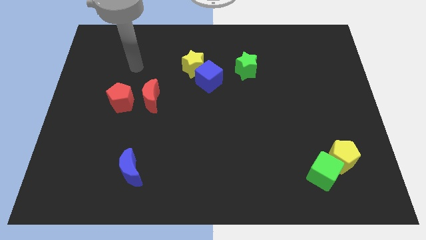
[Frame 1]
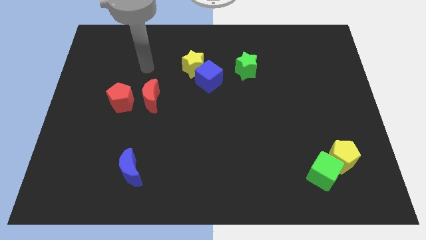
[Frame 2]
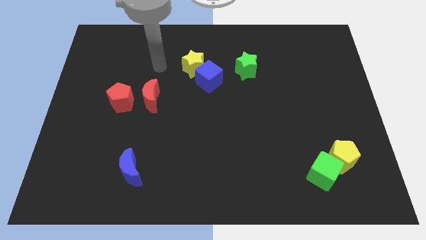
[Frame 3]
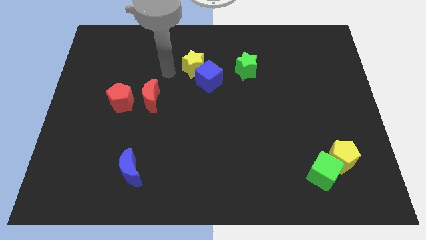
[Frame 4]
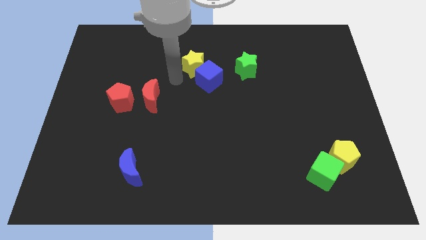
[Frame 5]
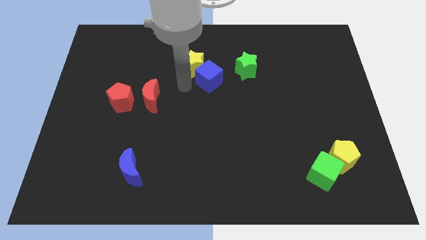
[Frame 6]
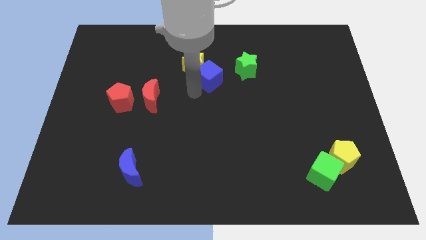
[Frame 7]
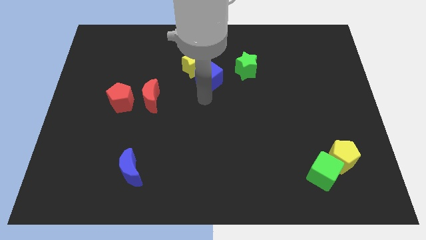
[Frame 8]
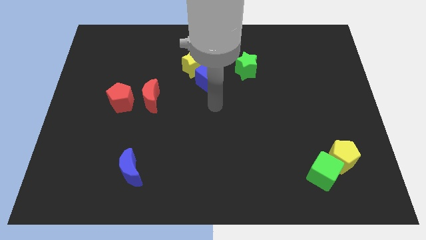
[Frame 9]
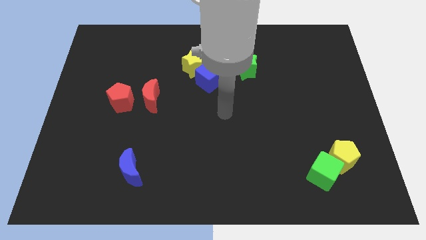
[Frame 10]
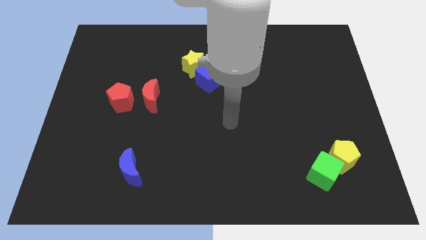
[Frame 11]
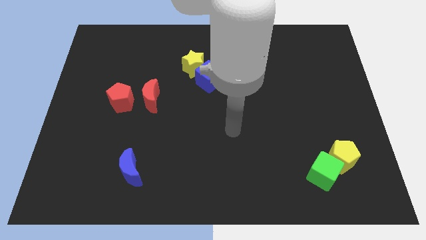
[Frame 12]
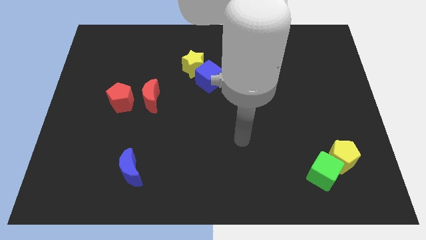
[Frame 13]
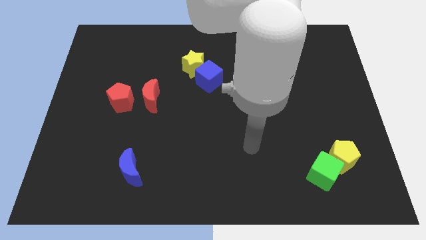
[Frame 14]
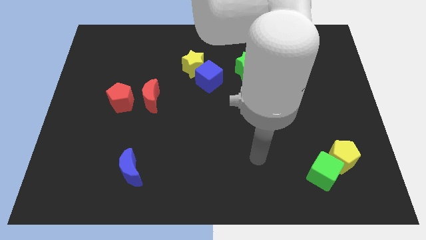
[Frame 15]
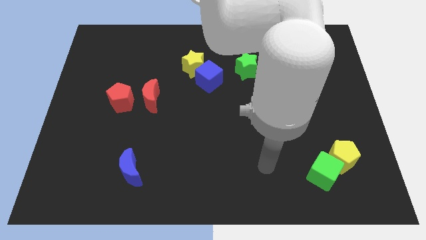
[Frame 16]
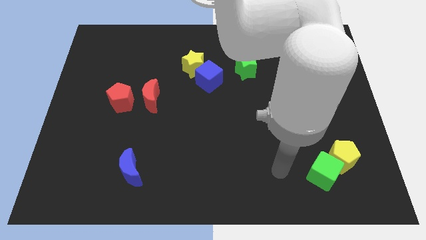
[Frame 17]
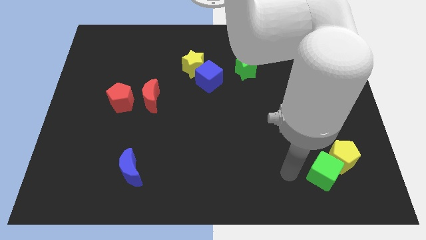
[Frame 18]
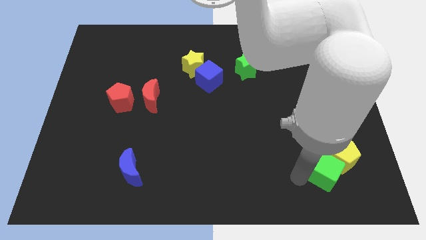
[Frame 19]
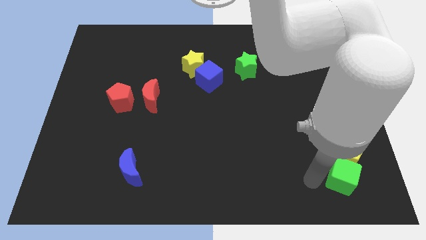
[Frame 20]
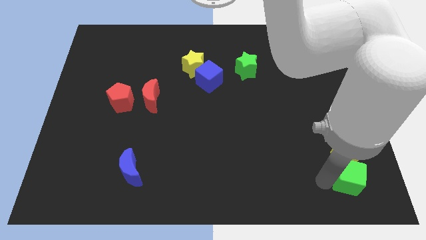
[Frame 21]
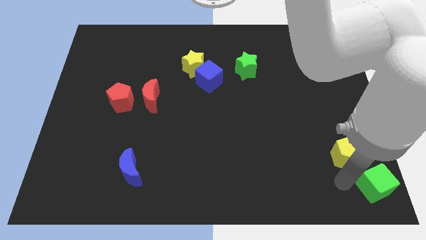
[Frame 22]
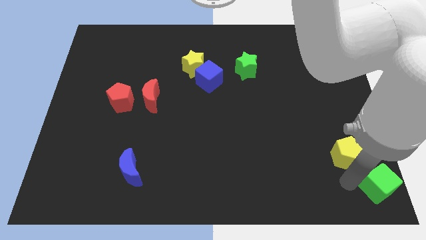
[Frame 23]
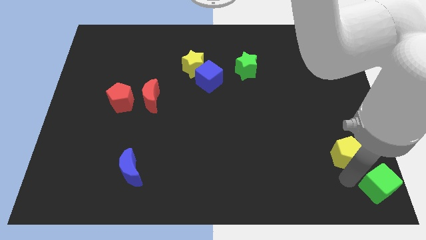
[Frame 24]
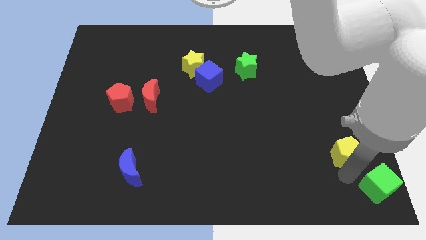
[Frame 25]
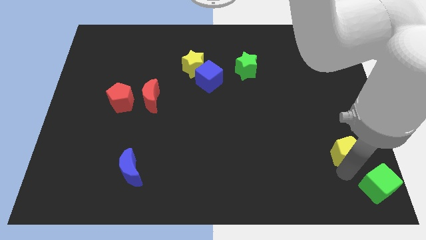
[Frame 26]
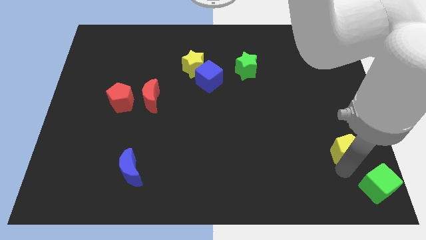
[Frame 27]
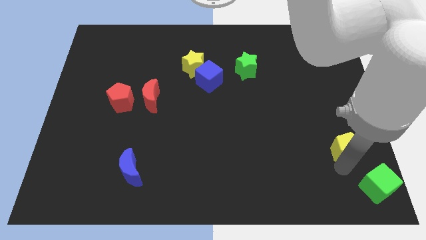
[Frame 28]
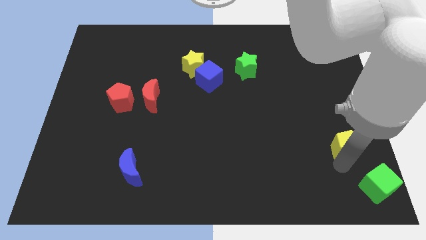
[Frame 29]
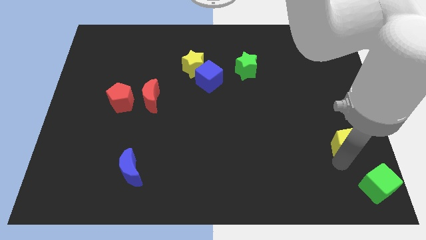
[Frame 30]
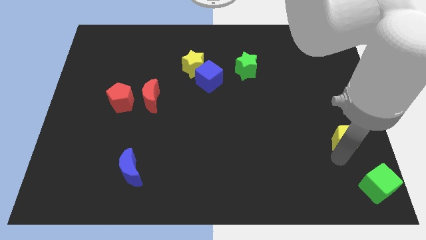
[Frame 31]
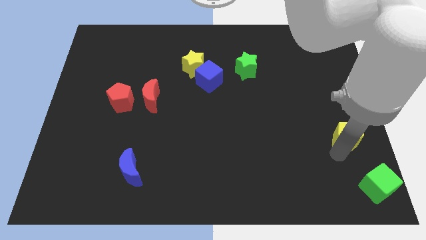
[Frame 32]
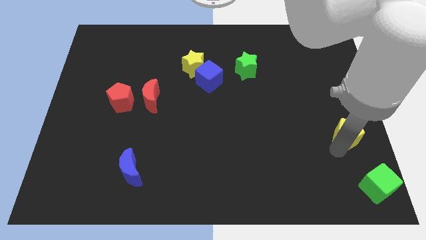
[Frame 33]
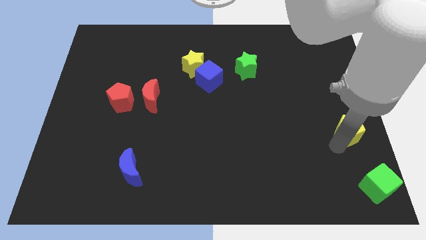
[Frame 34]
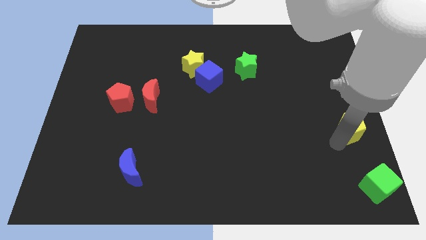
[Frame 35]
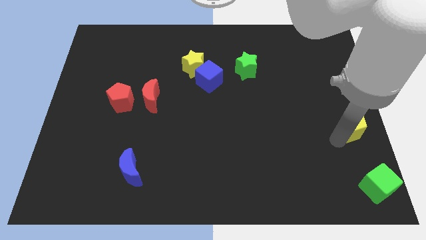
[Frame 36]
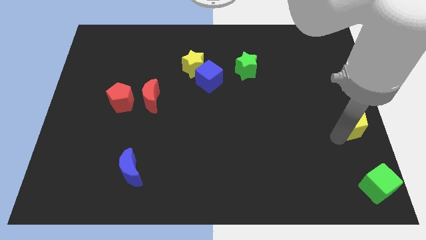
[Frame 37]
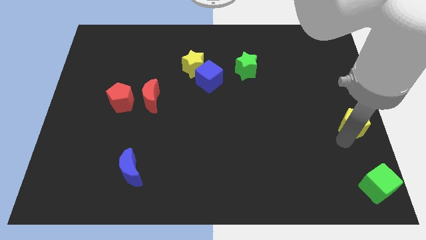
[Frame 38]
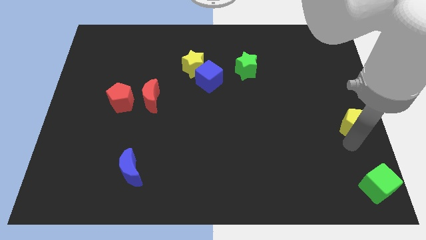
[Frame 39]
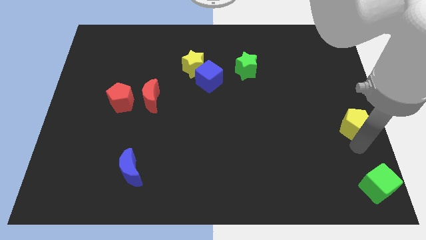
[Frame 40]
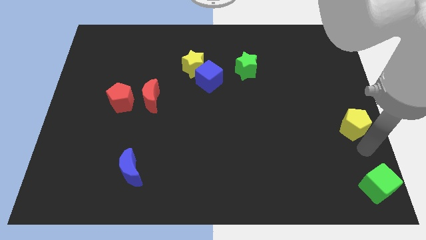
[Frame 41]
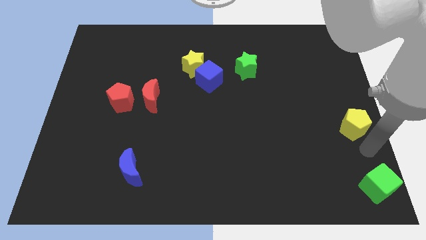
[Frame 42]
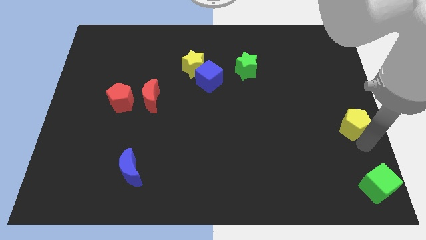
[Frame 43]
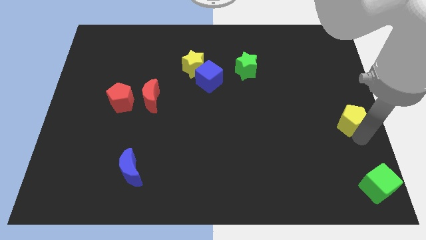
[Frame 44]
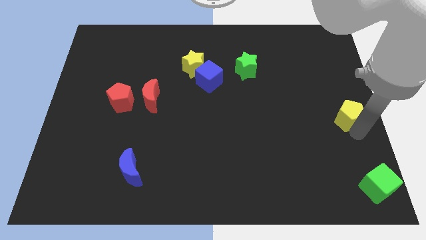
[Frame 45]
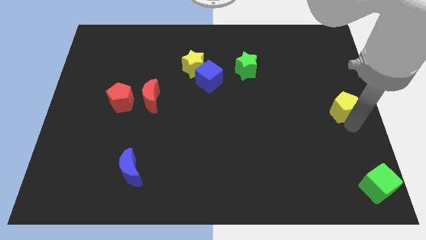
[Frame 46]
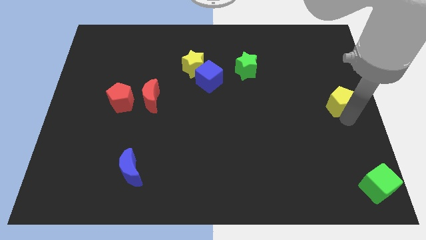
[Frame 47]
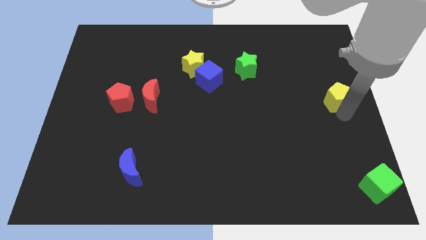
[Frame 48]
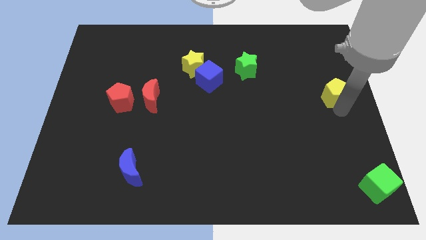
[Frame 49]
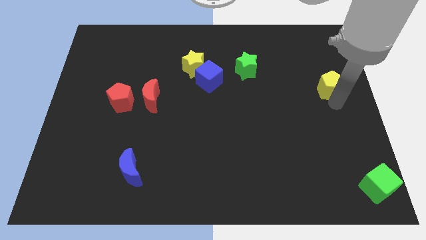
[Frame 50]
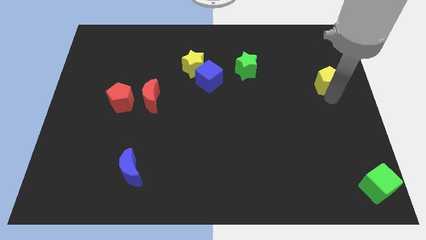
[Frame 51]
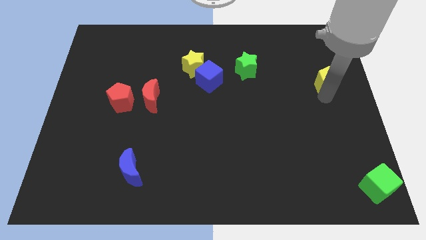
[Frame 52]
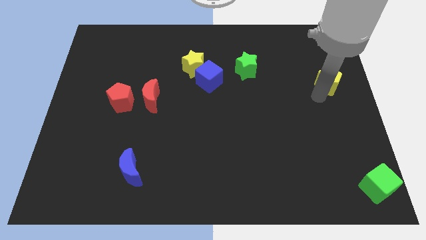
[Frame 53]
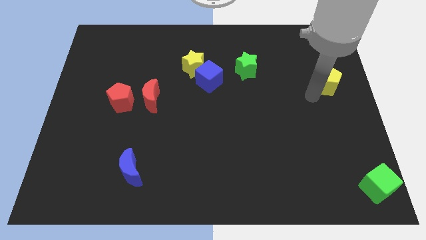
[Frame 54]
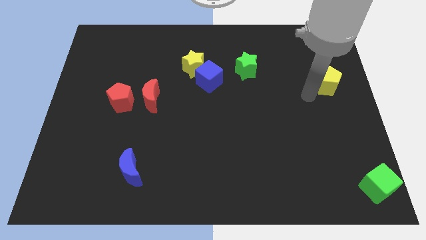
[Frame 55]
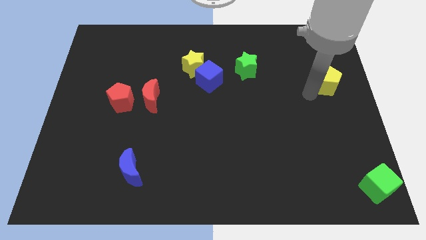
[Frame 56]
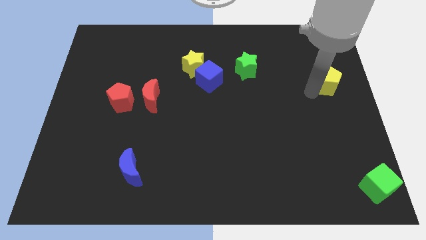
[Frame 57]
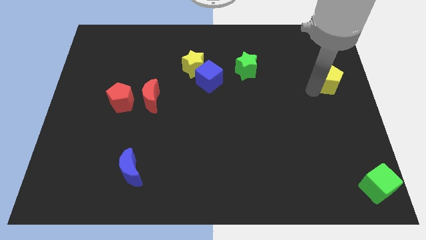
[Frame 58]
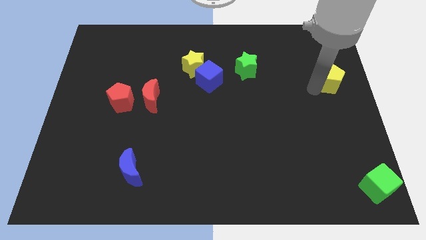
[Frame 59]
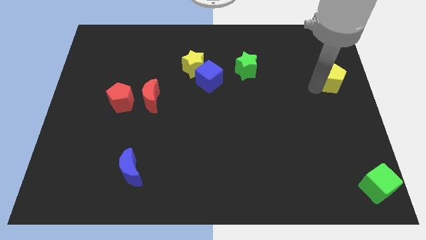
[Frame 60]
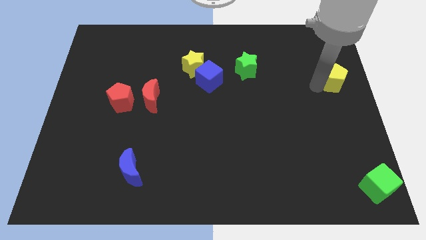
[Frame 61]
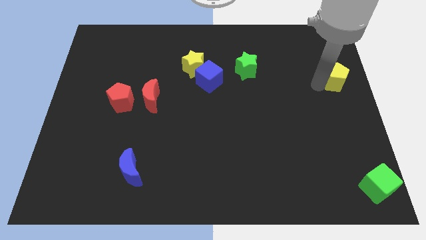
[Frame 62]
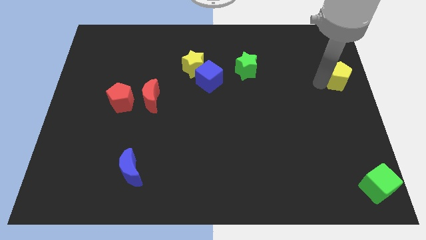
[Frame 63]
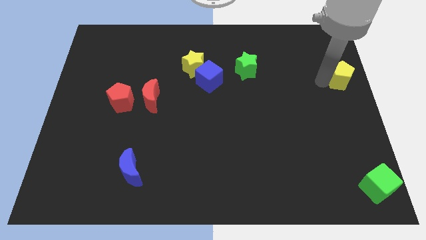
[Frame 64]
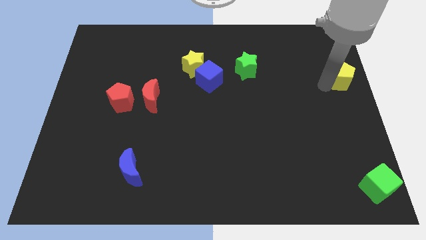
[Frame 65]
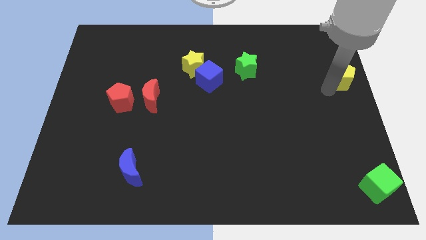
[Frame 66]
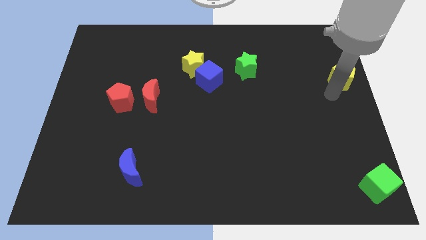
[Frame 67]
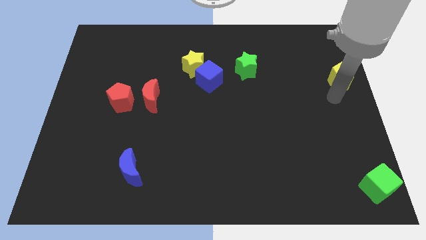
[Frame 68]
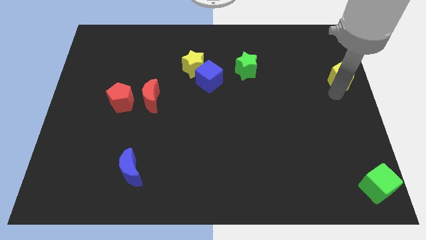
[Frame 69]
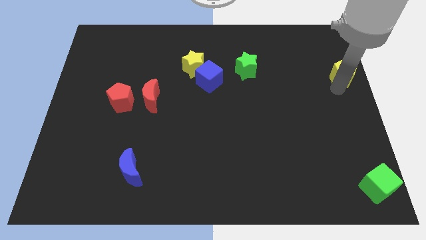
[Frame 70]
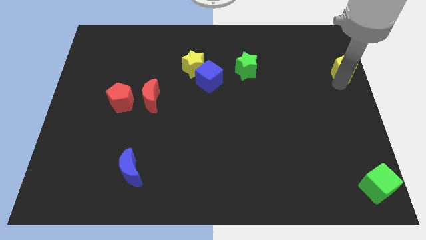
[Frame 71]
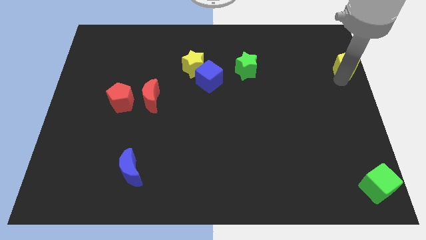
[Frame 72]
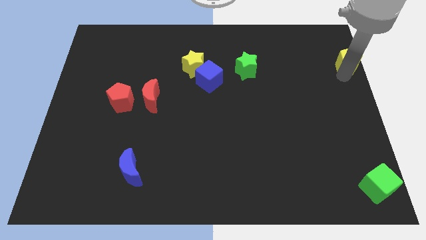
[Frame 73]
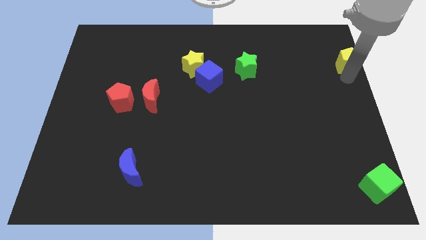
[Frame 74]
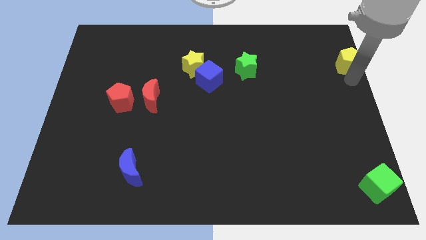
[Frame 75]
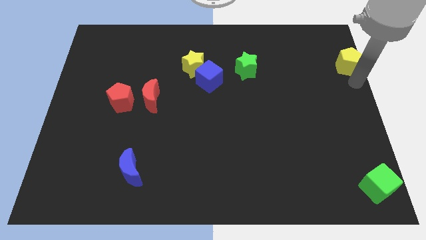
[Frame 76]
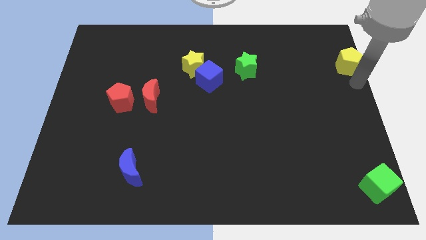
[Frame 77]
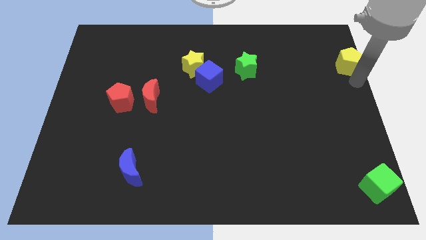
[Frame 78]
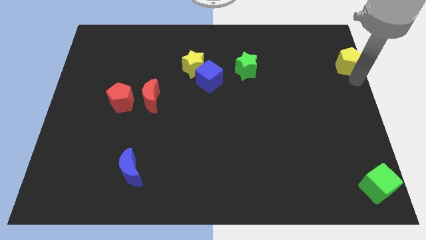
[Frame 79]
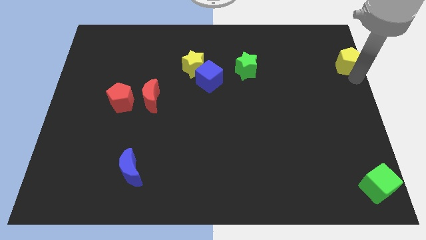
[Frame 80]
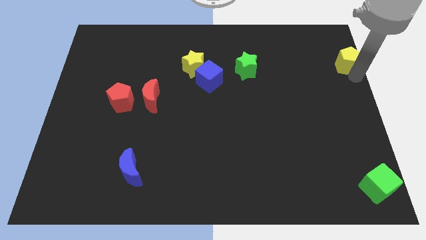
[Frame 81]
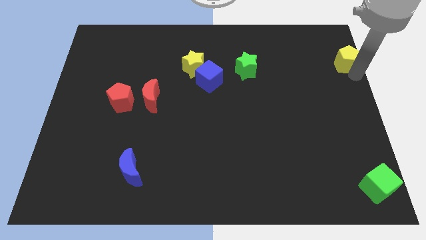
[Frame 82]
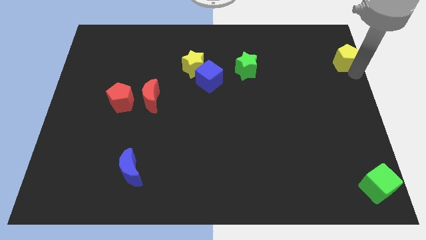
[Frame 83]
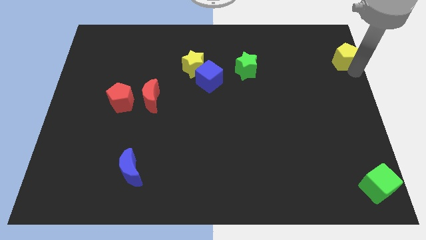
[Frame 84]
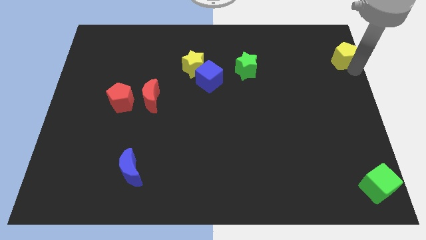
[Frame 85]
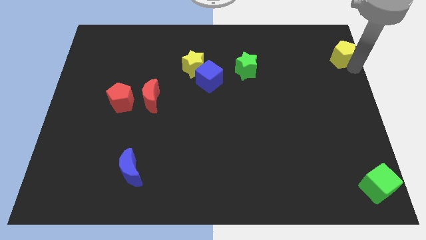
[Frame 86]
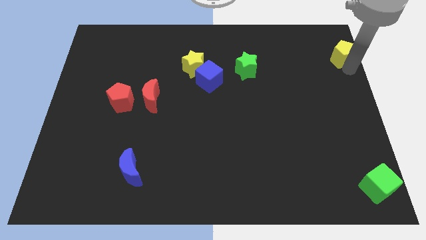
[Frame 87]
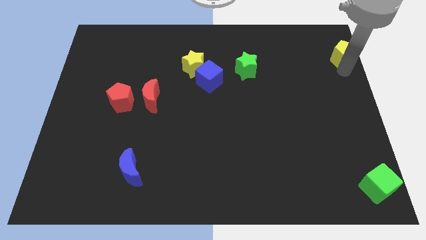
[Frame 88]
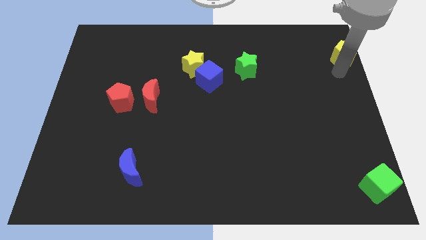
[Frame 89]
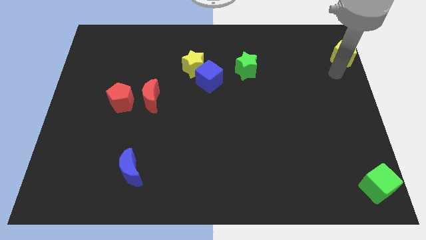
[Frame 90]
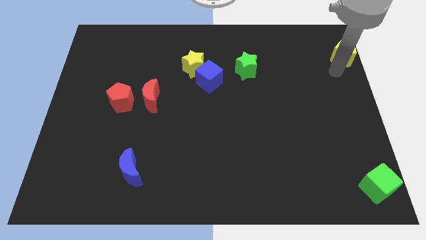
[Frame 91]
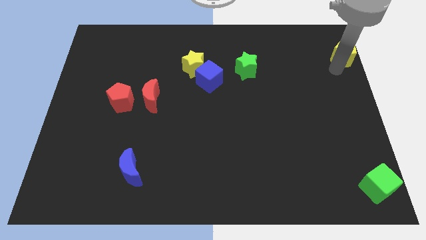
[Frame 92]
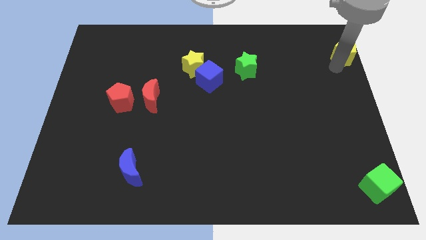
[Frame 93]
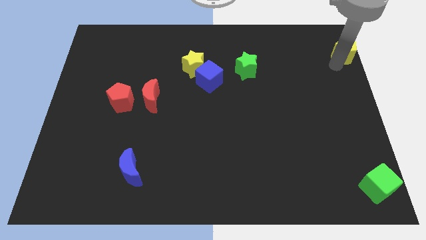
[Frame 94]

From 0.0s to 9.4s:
push the yellow pentagon to the top right of the board
